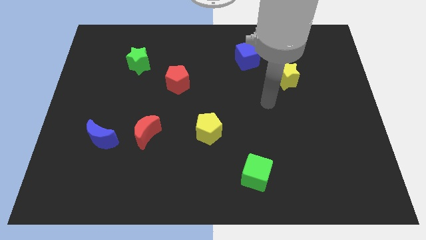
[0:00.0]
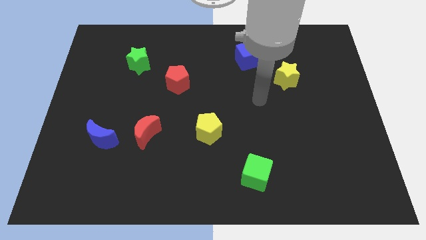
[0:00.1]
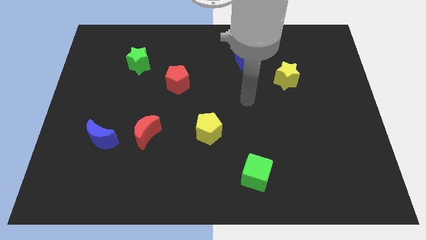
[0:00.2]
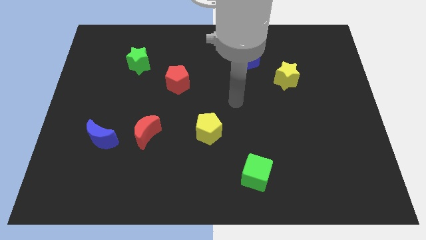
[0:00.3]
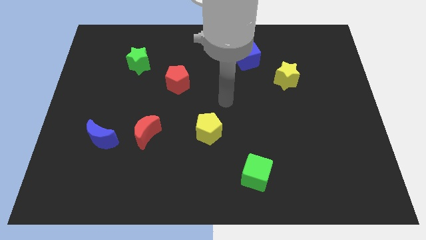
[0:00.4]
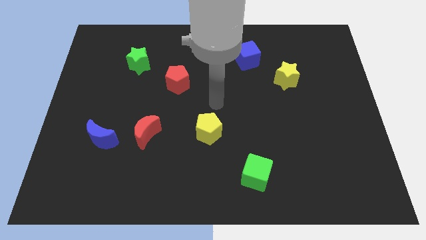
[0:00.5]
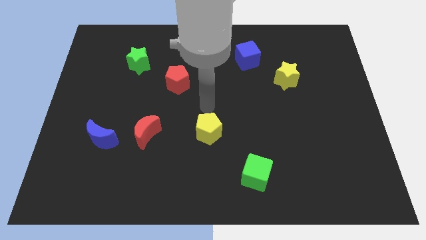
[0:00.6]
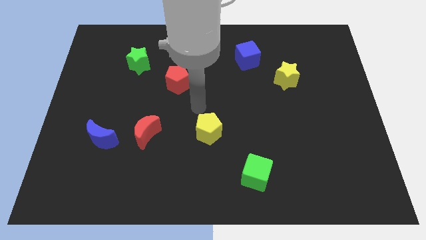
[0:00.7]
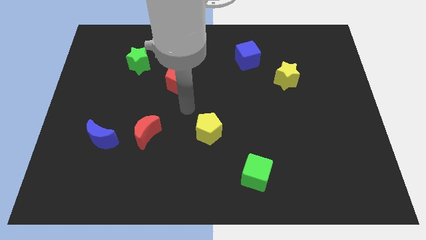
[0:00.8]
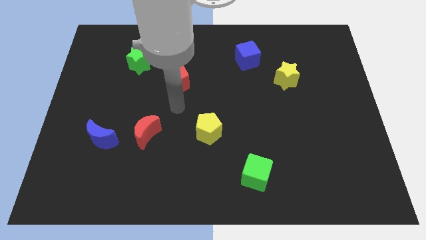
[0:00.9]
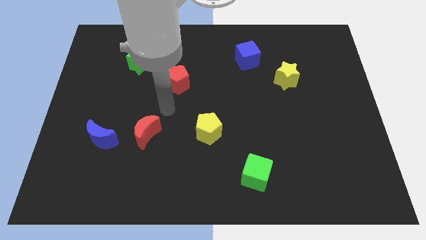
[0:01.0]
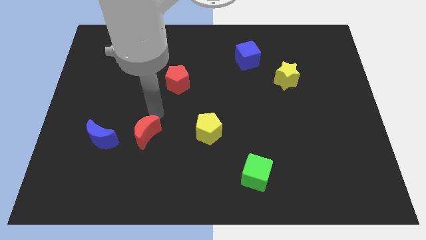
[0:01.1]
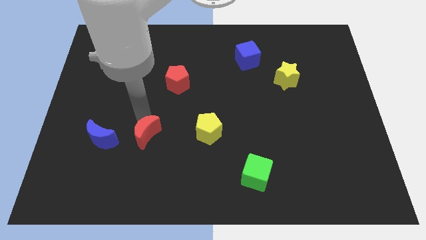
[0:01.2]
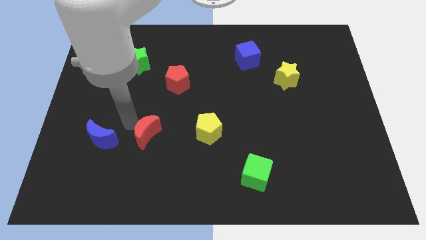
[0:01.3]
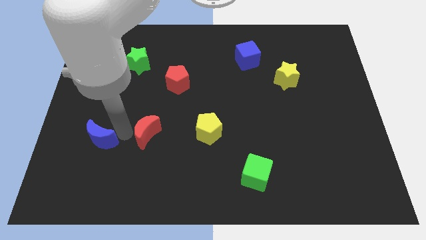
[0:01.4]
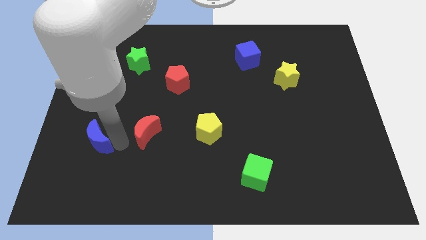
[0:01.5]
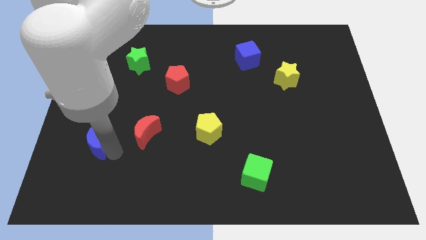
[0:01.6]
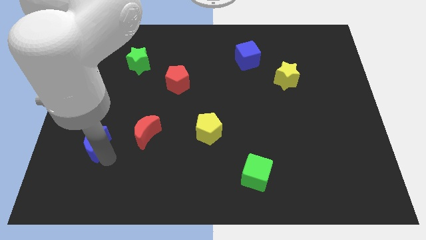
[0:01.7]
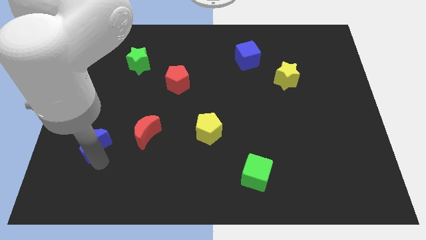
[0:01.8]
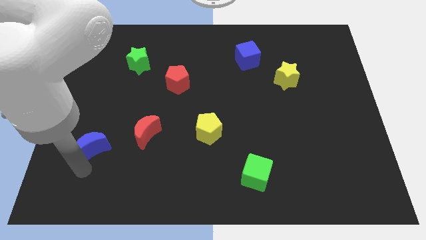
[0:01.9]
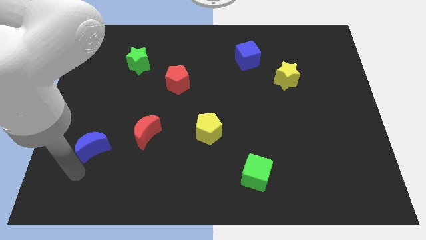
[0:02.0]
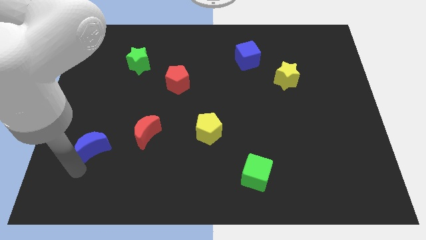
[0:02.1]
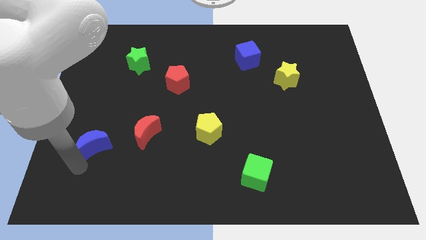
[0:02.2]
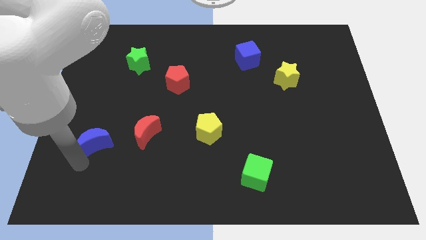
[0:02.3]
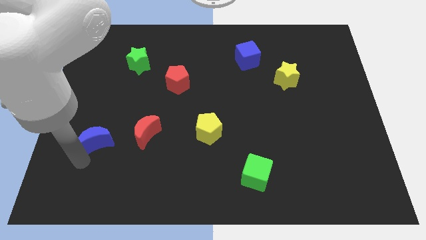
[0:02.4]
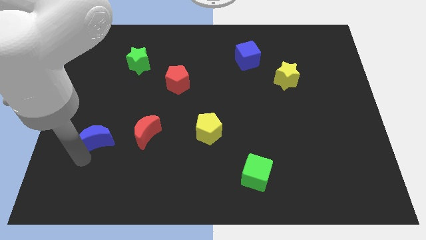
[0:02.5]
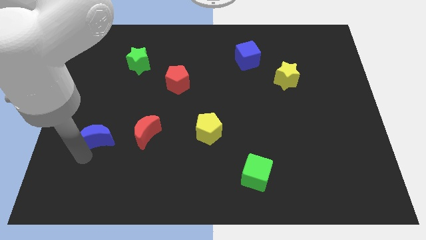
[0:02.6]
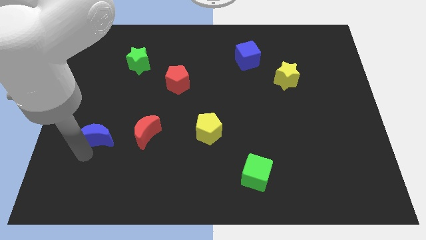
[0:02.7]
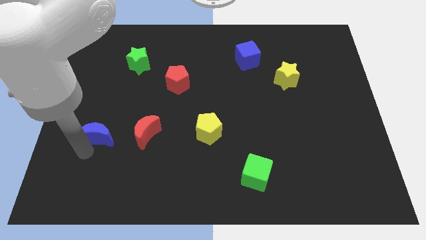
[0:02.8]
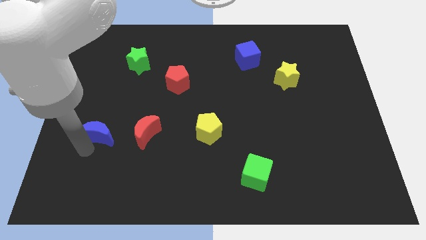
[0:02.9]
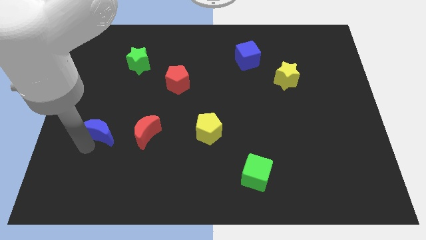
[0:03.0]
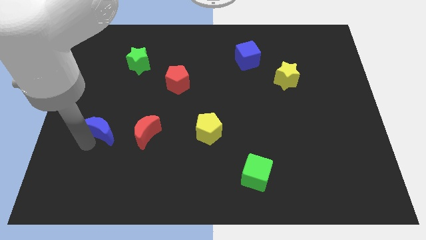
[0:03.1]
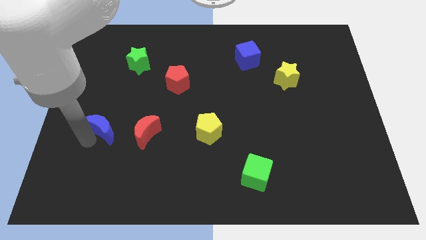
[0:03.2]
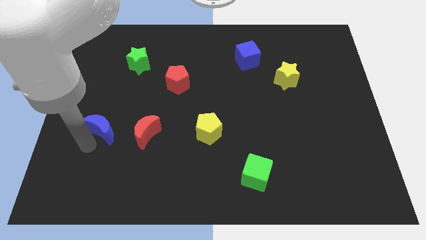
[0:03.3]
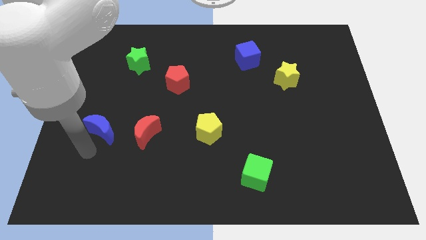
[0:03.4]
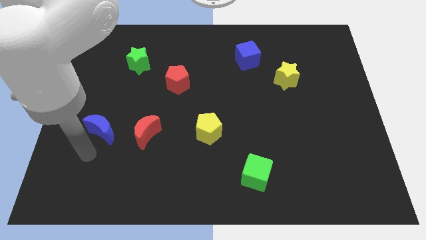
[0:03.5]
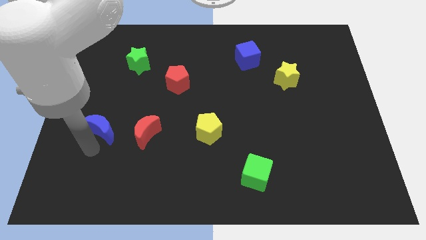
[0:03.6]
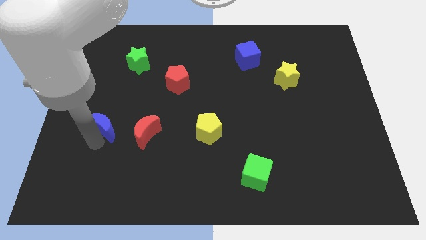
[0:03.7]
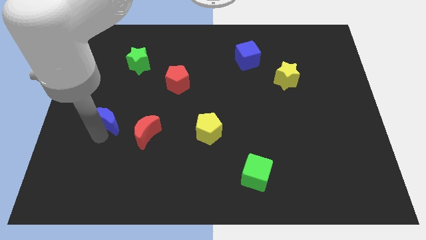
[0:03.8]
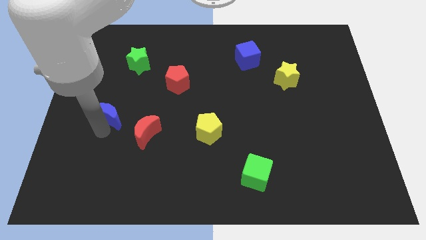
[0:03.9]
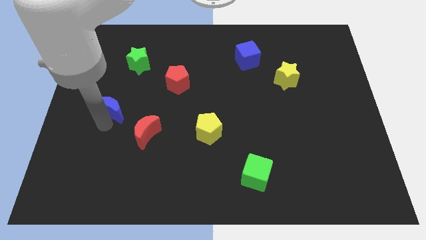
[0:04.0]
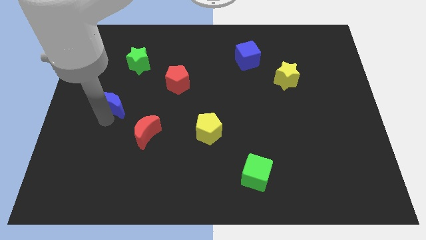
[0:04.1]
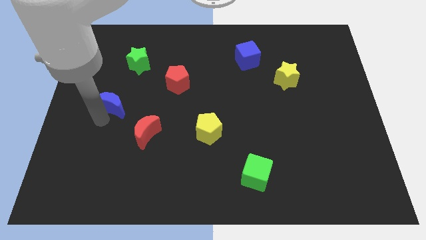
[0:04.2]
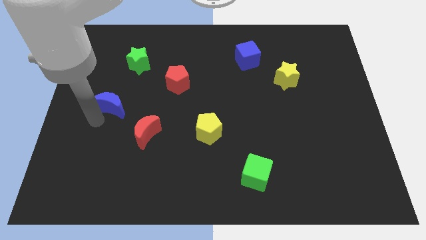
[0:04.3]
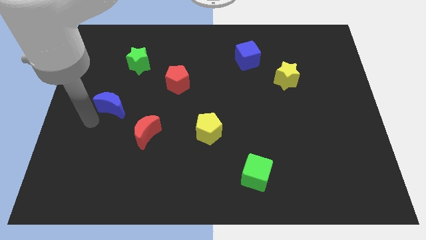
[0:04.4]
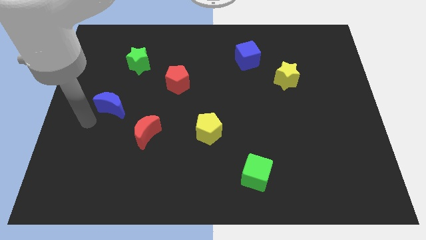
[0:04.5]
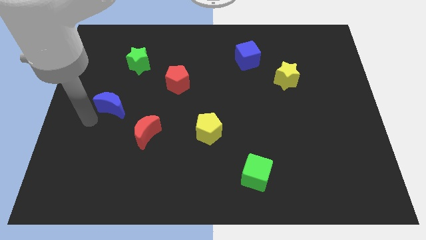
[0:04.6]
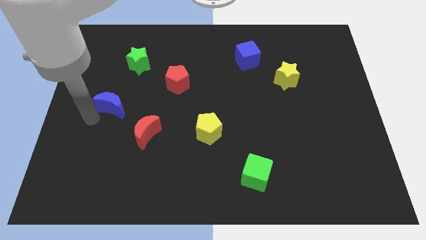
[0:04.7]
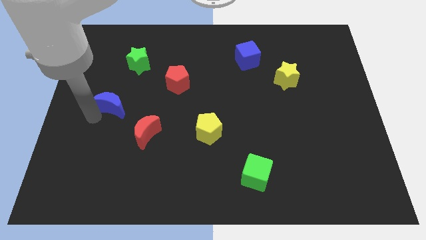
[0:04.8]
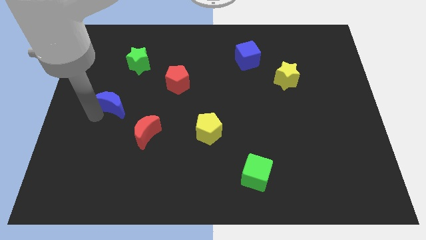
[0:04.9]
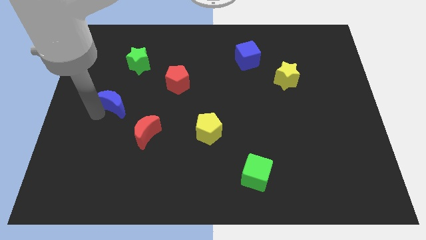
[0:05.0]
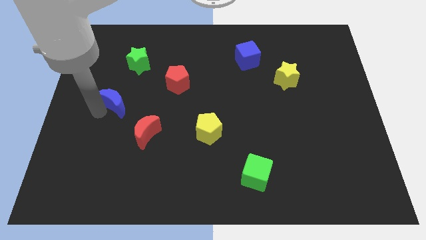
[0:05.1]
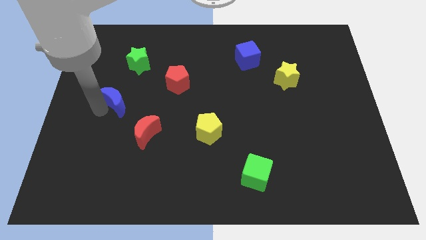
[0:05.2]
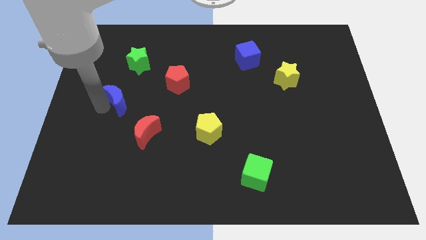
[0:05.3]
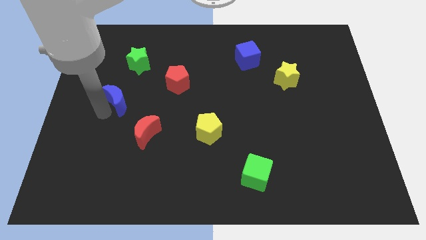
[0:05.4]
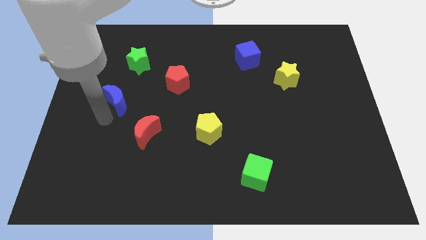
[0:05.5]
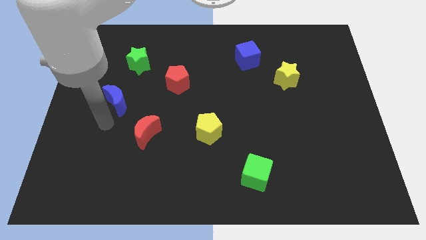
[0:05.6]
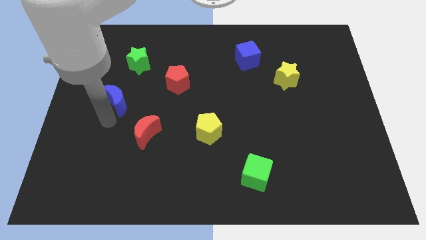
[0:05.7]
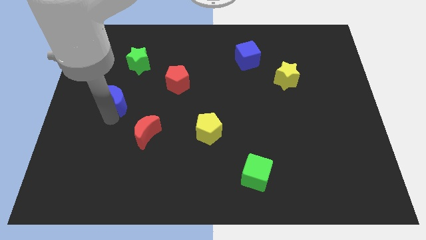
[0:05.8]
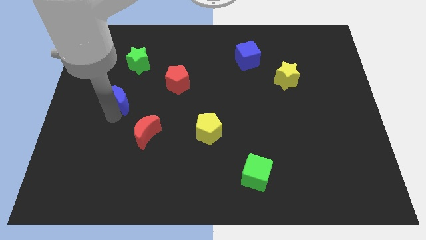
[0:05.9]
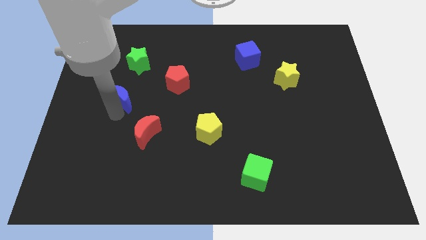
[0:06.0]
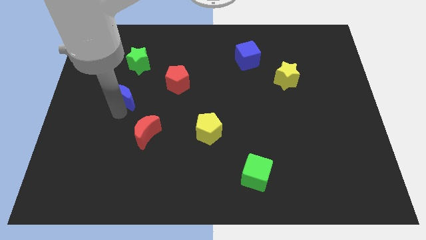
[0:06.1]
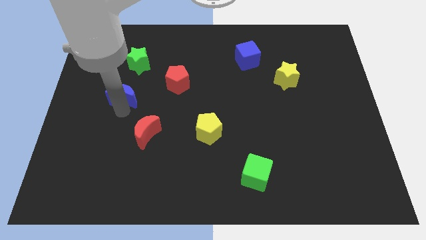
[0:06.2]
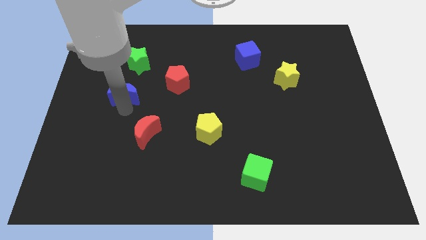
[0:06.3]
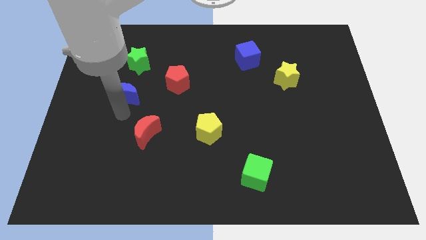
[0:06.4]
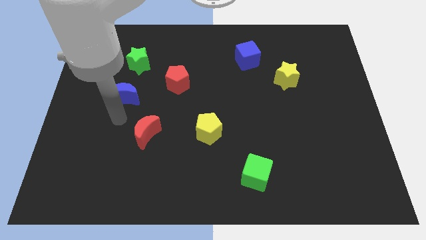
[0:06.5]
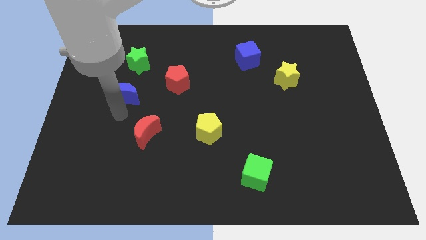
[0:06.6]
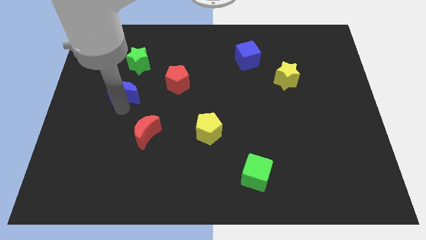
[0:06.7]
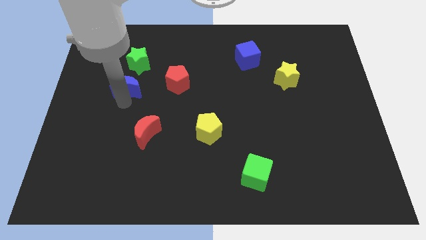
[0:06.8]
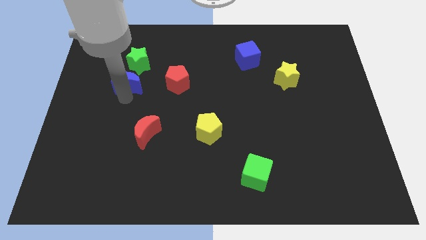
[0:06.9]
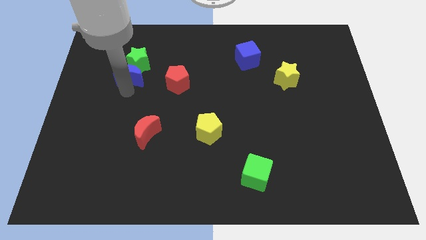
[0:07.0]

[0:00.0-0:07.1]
put the blue moon next to the green star
